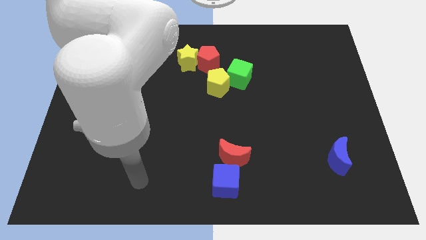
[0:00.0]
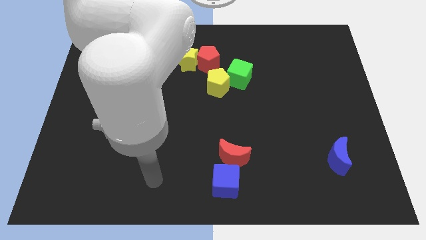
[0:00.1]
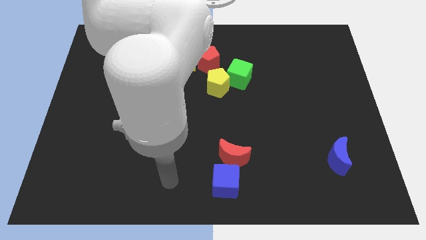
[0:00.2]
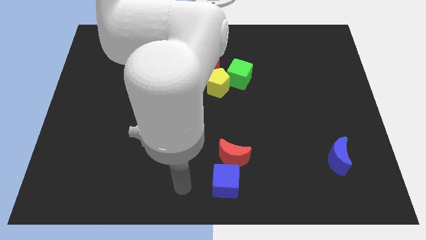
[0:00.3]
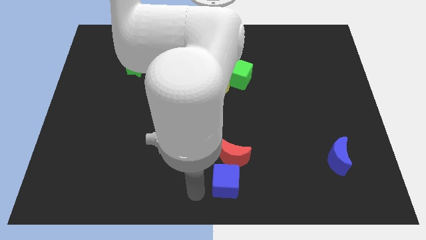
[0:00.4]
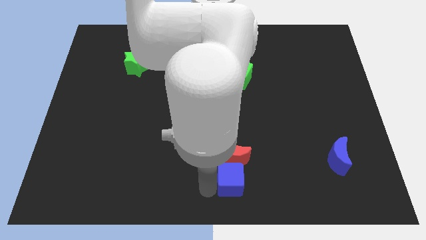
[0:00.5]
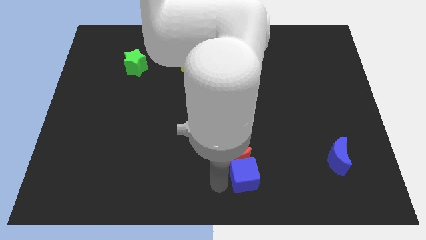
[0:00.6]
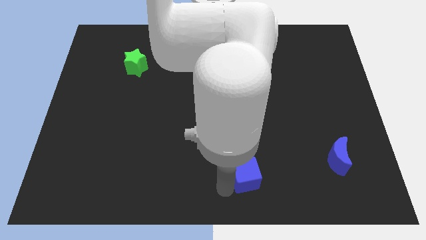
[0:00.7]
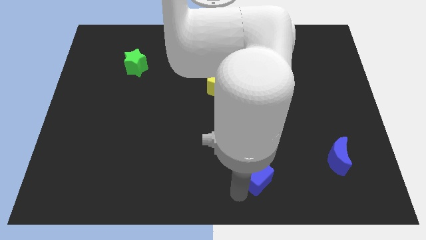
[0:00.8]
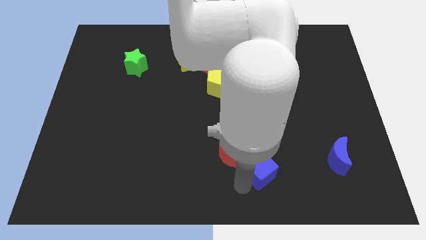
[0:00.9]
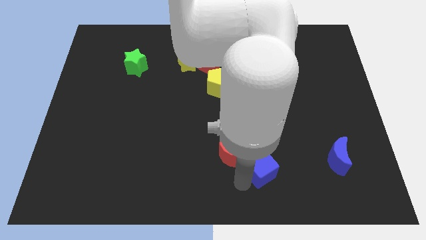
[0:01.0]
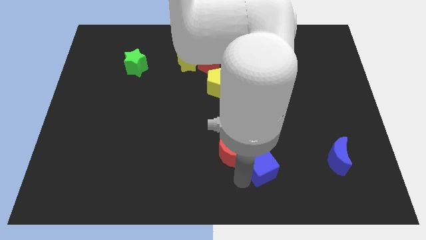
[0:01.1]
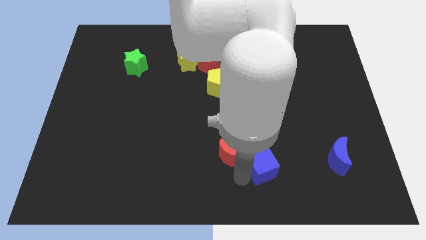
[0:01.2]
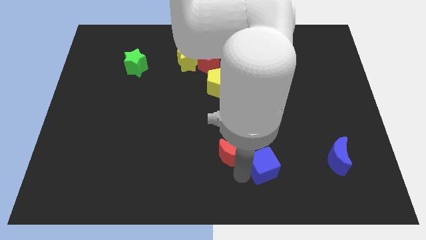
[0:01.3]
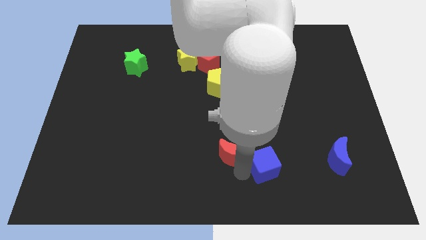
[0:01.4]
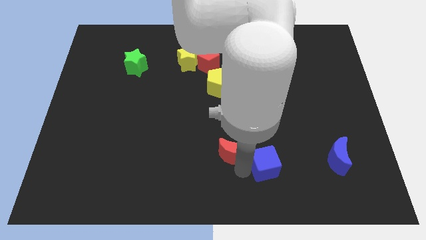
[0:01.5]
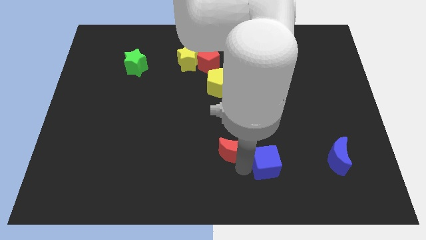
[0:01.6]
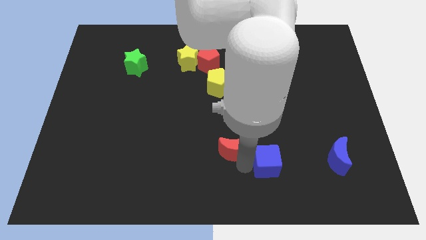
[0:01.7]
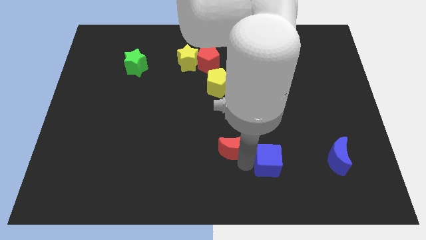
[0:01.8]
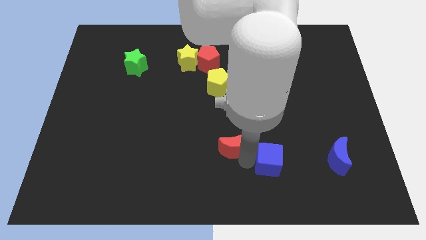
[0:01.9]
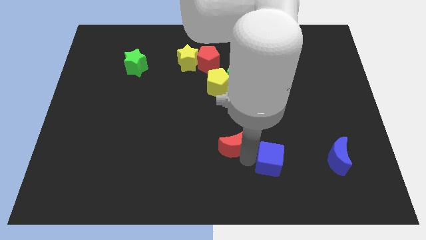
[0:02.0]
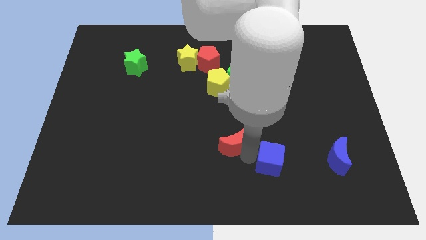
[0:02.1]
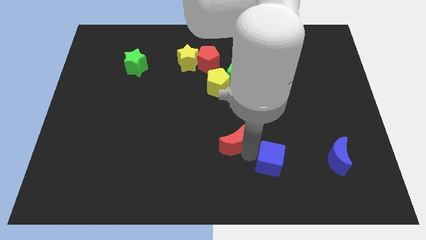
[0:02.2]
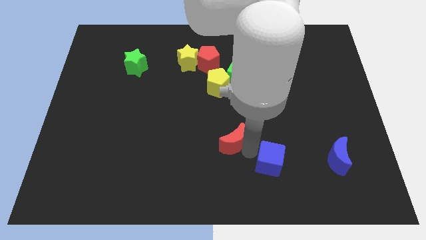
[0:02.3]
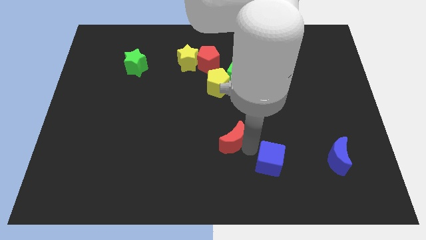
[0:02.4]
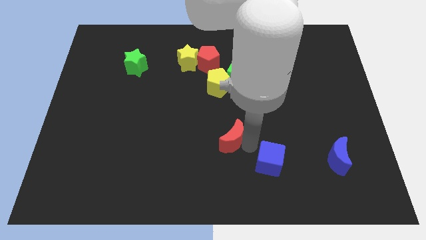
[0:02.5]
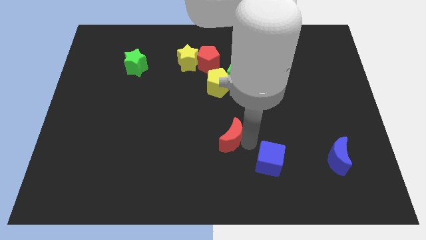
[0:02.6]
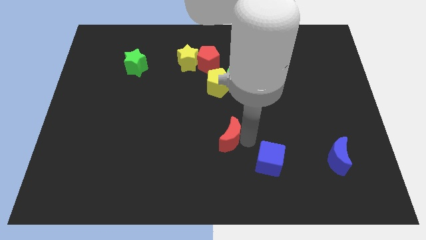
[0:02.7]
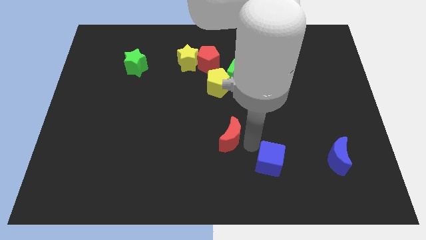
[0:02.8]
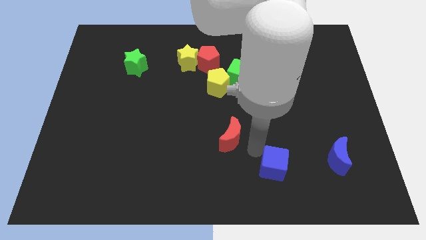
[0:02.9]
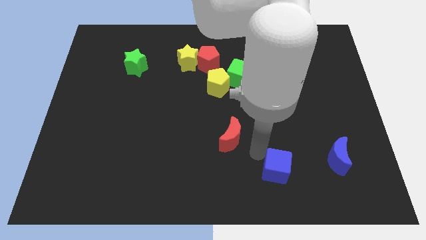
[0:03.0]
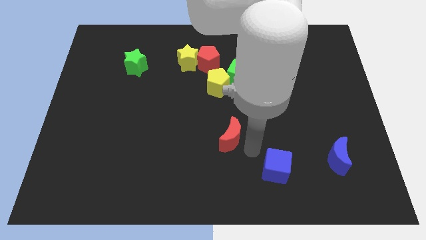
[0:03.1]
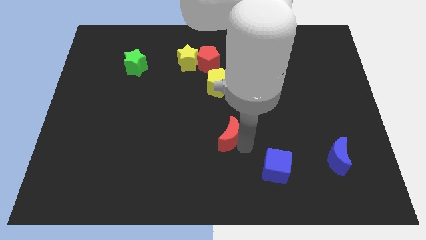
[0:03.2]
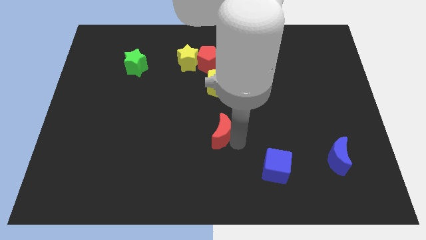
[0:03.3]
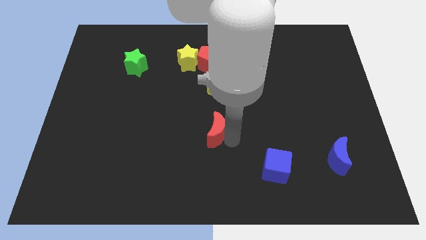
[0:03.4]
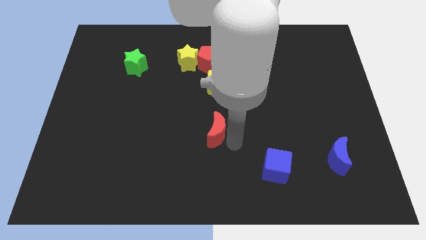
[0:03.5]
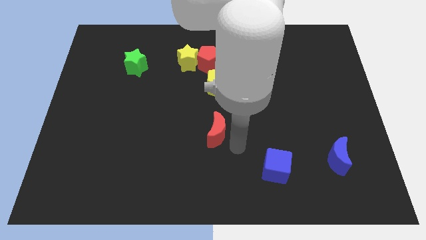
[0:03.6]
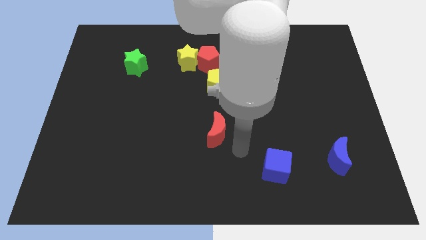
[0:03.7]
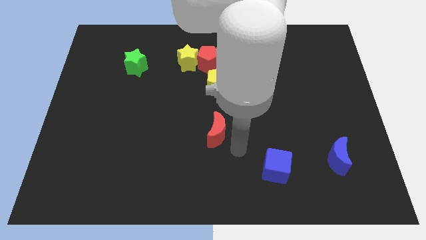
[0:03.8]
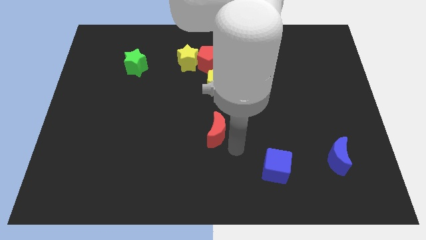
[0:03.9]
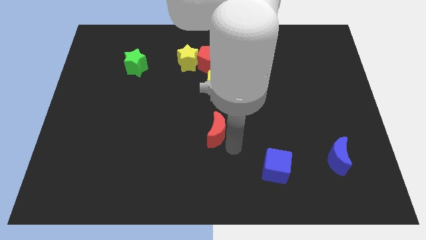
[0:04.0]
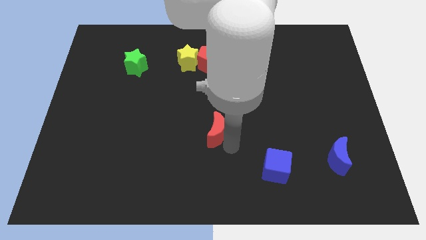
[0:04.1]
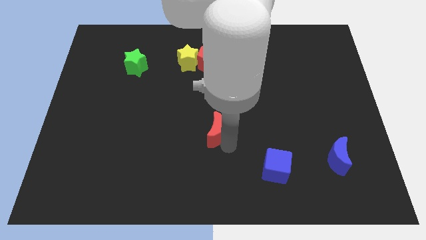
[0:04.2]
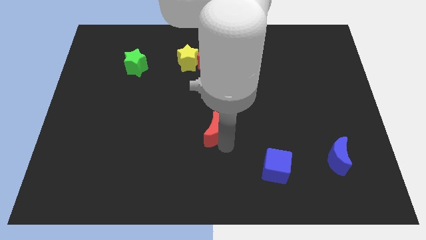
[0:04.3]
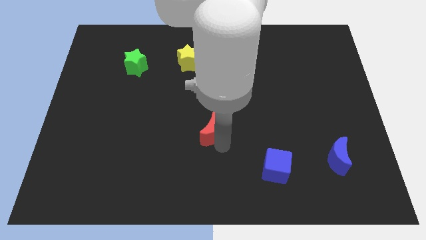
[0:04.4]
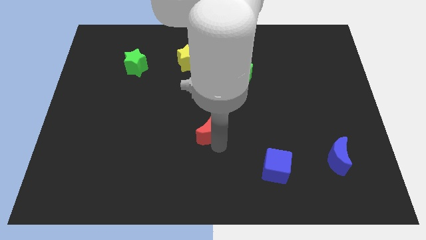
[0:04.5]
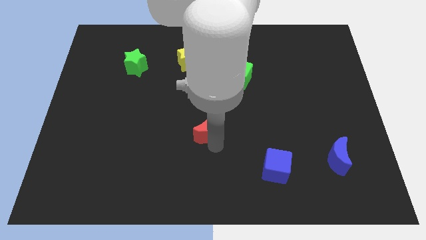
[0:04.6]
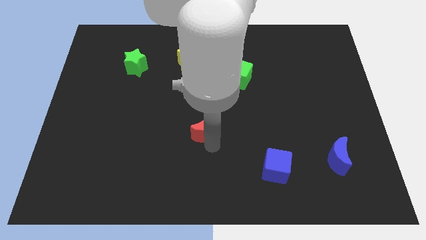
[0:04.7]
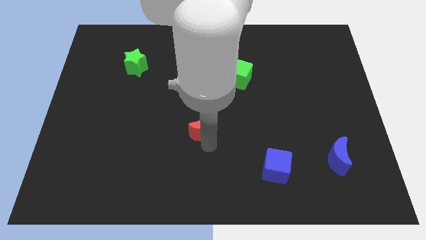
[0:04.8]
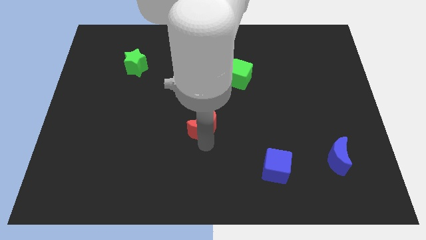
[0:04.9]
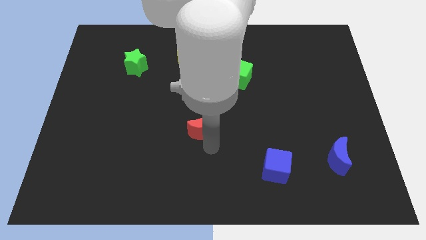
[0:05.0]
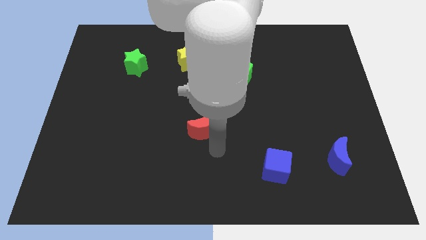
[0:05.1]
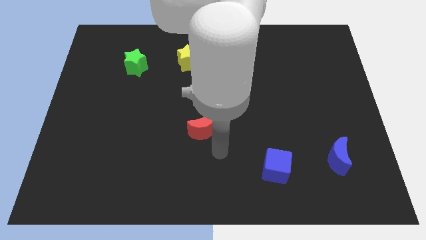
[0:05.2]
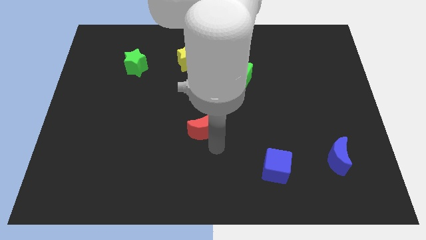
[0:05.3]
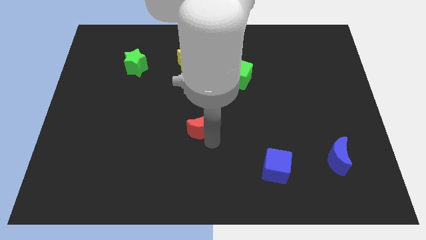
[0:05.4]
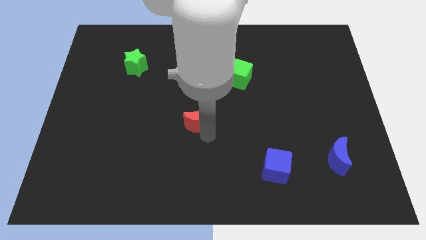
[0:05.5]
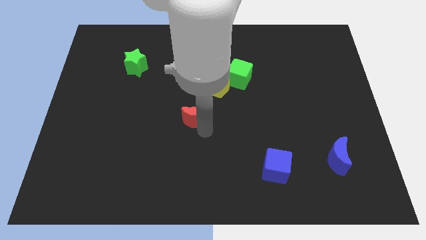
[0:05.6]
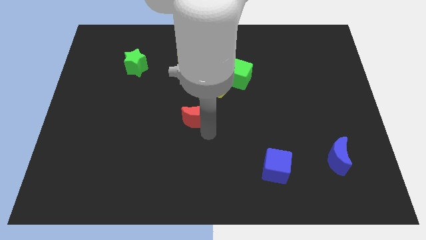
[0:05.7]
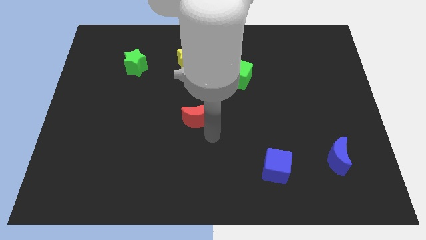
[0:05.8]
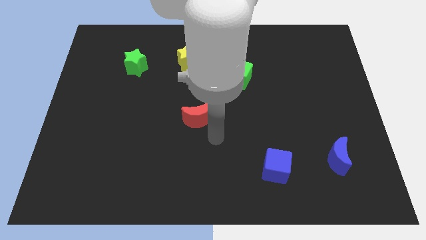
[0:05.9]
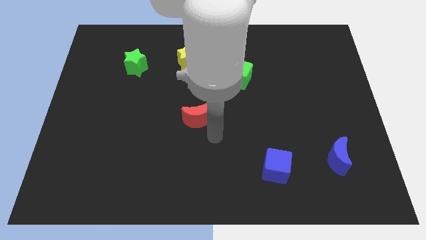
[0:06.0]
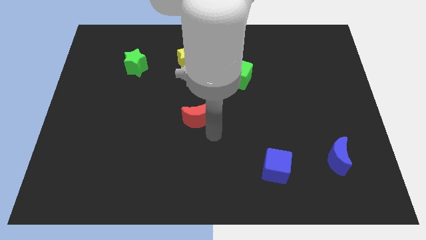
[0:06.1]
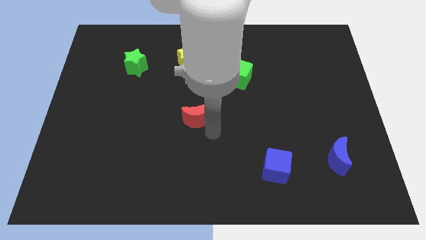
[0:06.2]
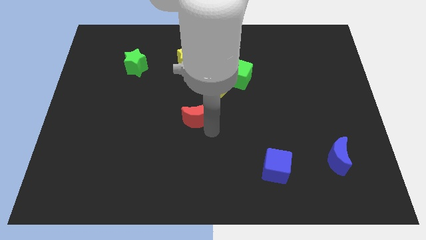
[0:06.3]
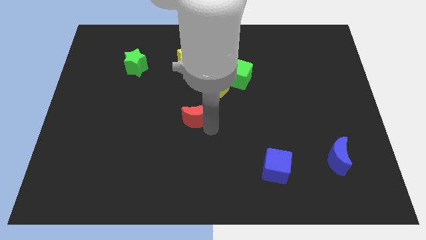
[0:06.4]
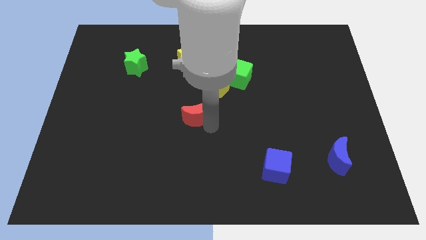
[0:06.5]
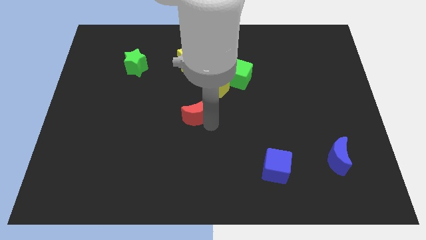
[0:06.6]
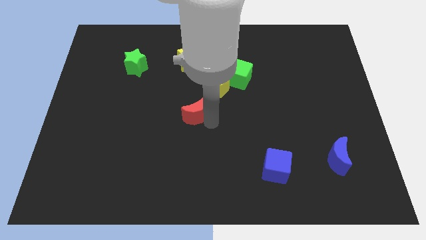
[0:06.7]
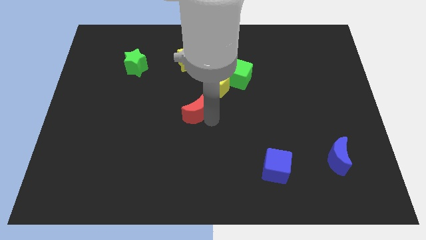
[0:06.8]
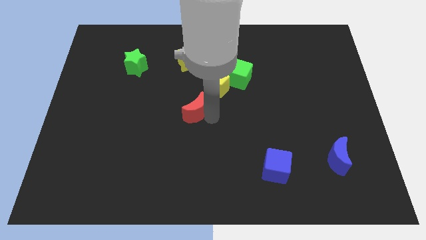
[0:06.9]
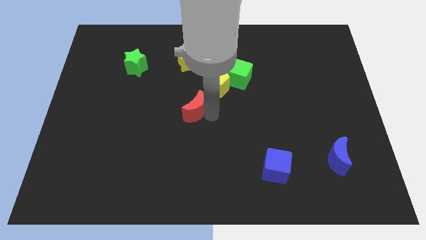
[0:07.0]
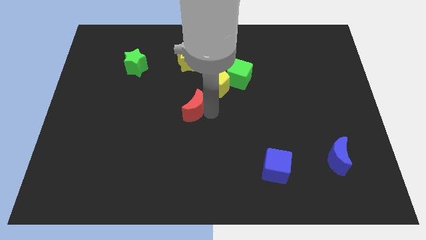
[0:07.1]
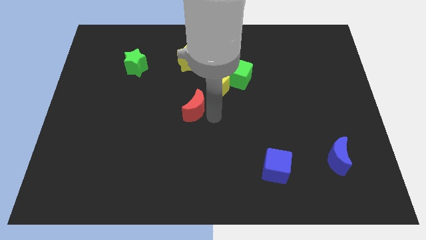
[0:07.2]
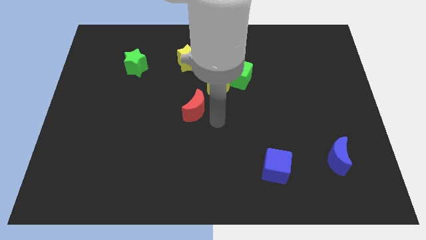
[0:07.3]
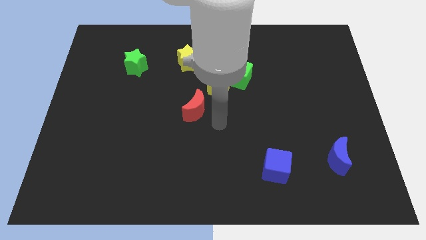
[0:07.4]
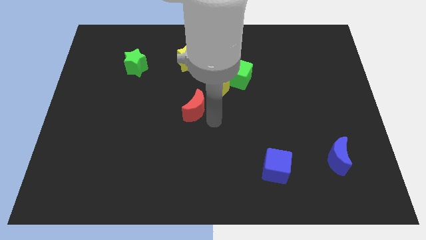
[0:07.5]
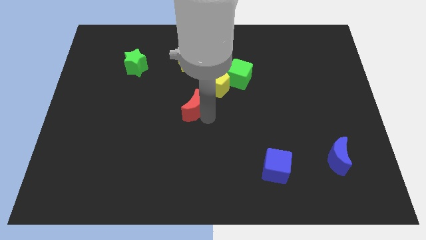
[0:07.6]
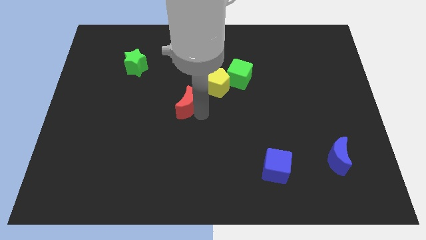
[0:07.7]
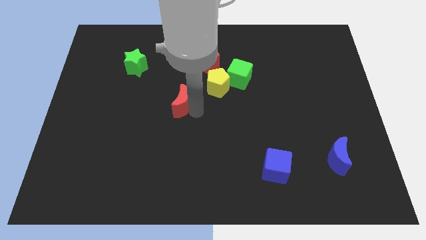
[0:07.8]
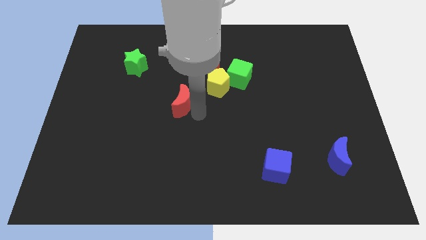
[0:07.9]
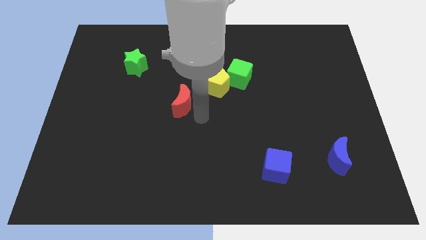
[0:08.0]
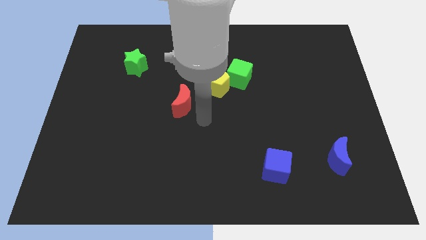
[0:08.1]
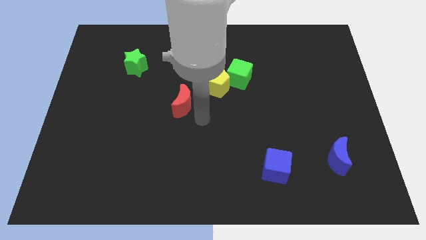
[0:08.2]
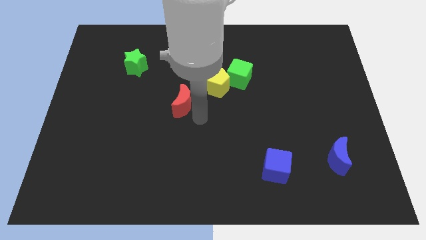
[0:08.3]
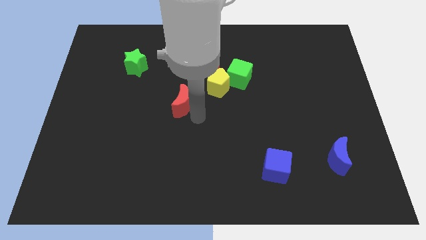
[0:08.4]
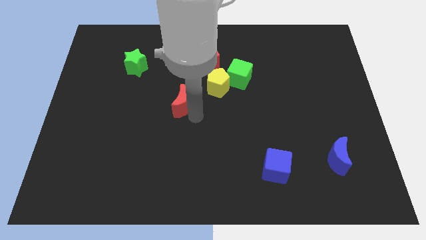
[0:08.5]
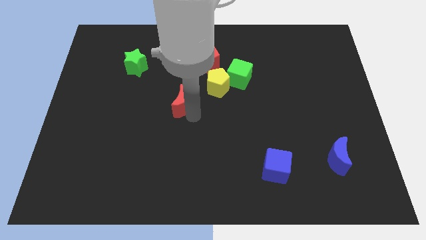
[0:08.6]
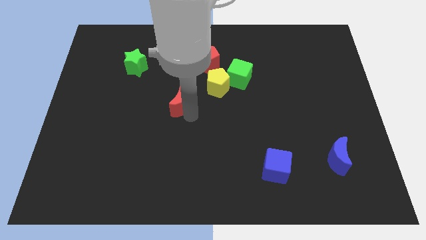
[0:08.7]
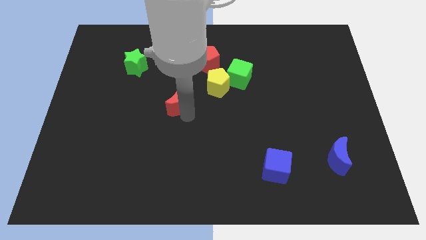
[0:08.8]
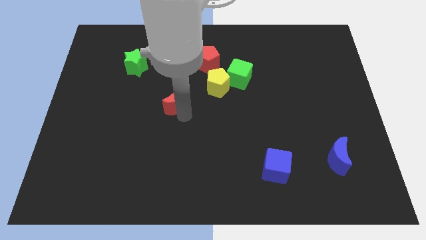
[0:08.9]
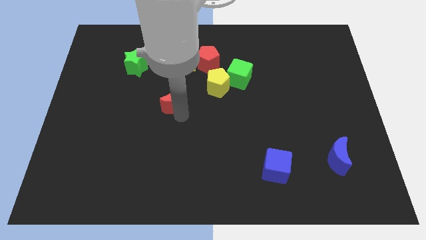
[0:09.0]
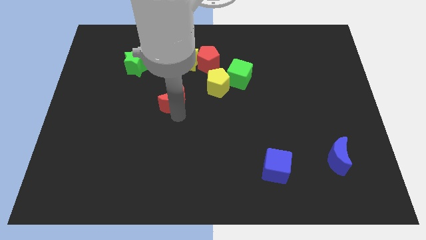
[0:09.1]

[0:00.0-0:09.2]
move the red moon up and then left
